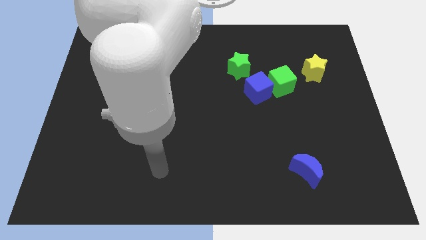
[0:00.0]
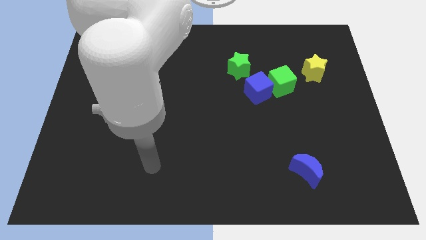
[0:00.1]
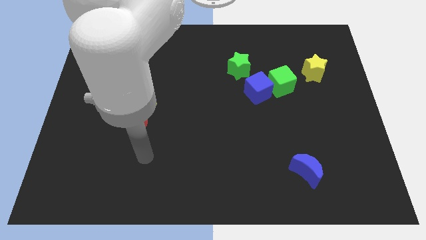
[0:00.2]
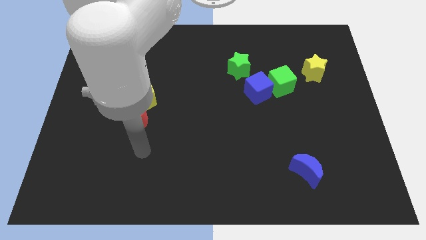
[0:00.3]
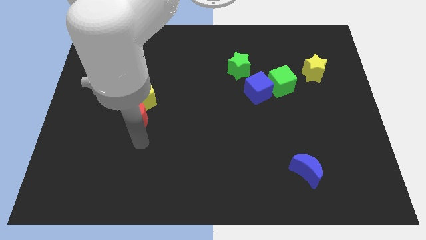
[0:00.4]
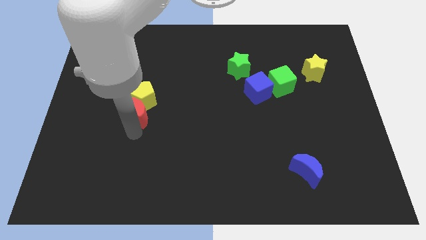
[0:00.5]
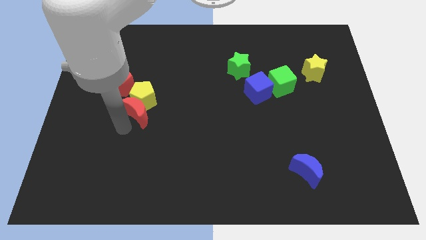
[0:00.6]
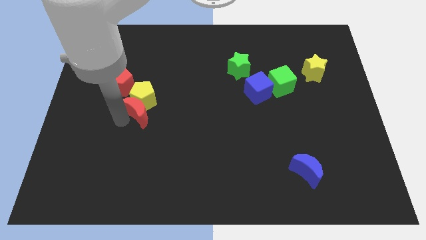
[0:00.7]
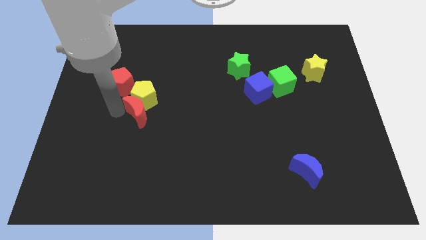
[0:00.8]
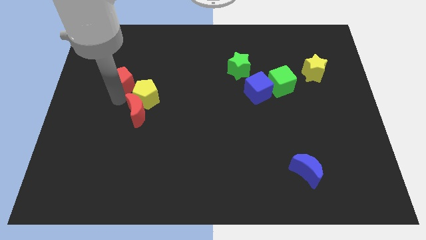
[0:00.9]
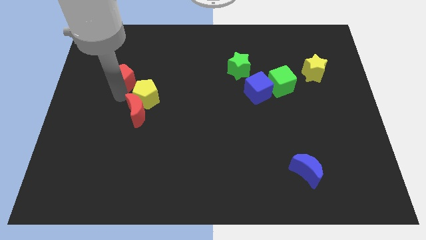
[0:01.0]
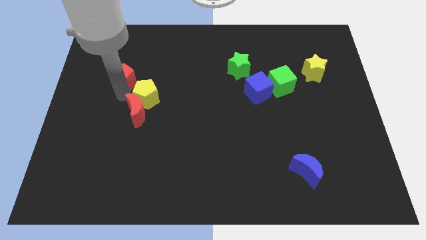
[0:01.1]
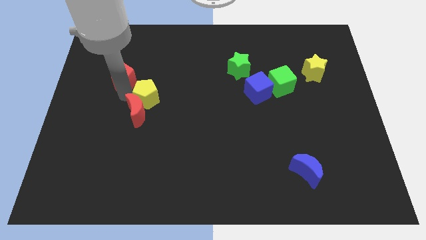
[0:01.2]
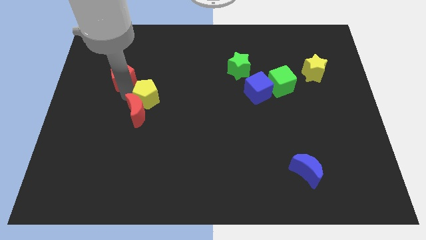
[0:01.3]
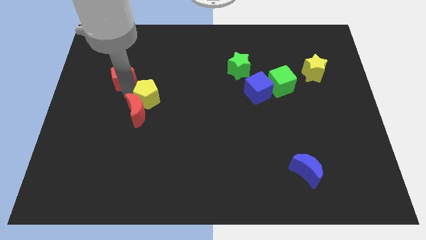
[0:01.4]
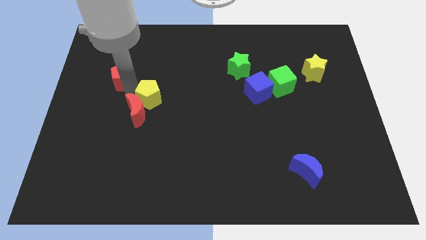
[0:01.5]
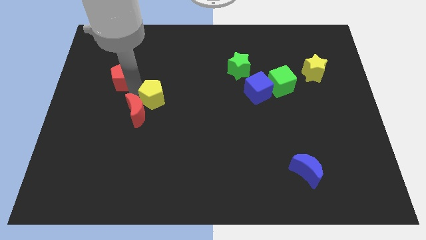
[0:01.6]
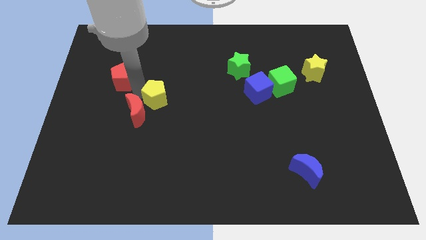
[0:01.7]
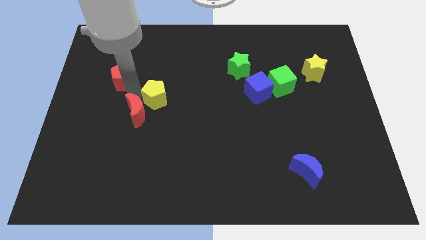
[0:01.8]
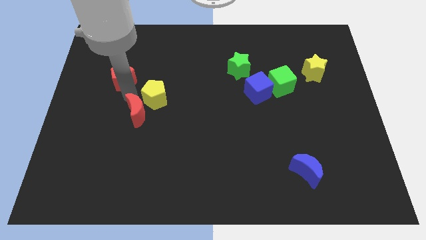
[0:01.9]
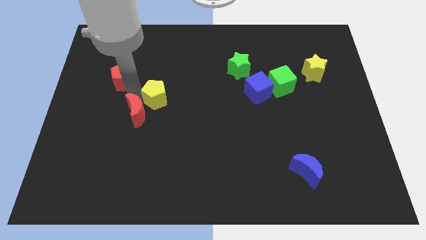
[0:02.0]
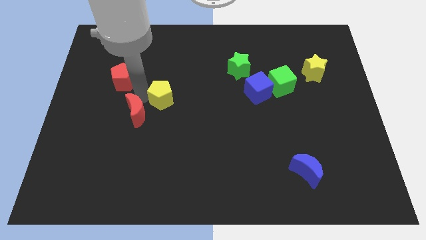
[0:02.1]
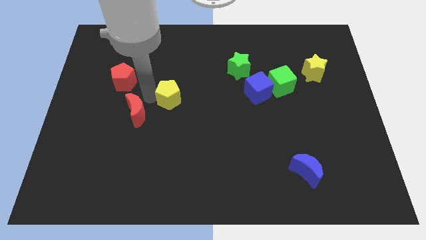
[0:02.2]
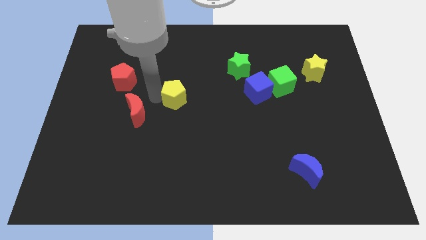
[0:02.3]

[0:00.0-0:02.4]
separate the yellow pentagon from the red moon and red pentagon

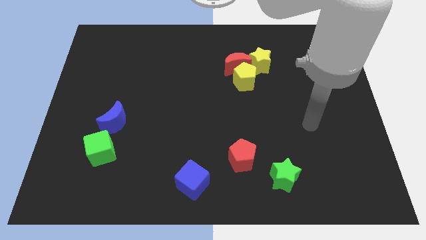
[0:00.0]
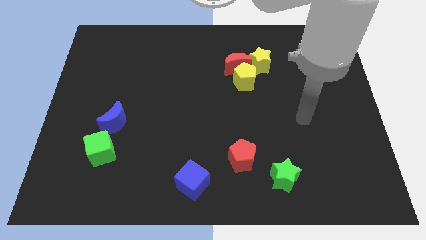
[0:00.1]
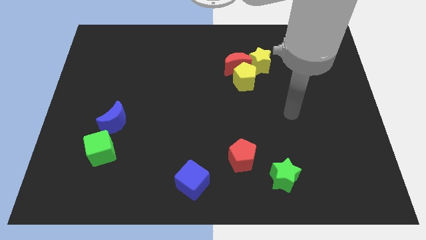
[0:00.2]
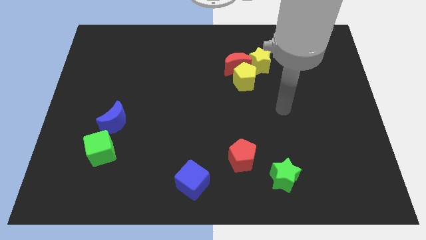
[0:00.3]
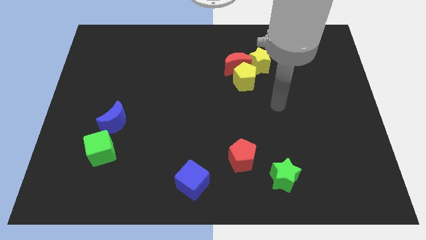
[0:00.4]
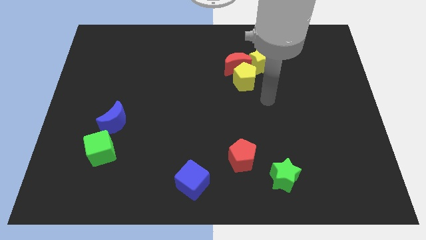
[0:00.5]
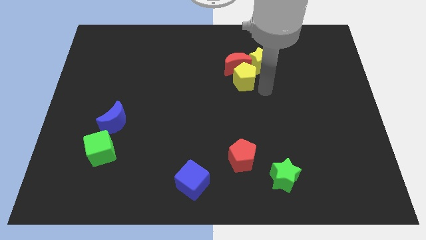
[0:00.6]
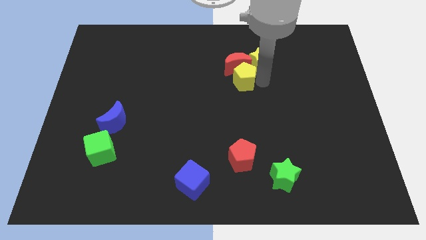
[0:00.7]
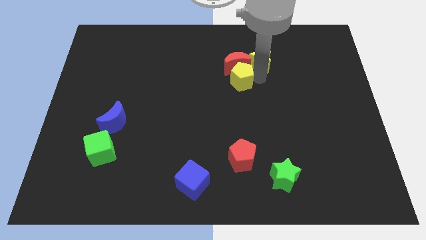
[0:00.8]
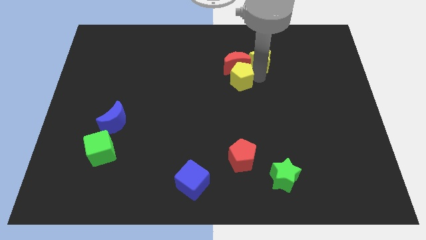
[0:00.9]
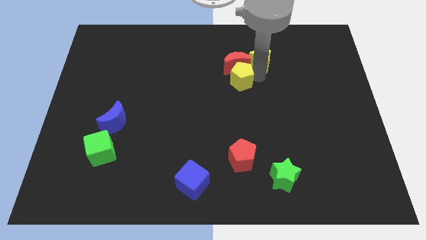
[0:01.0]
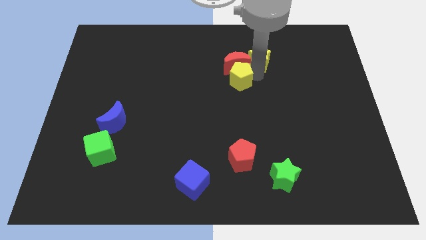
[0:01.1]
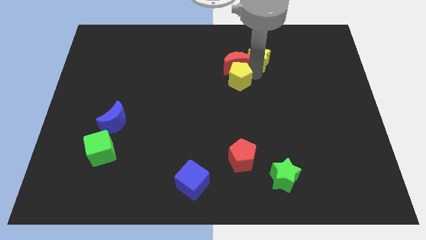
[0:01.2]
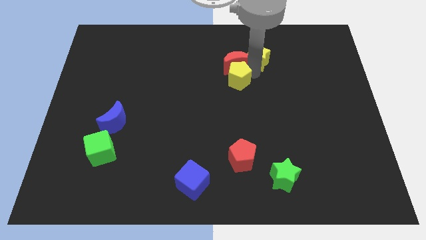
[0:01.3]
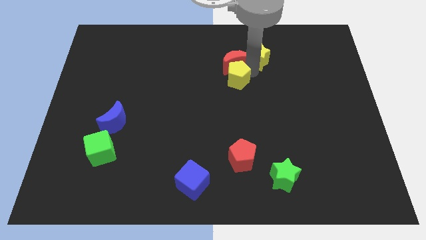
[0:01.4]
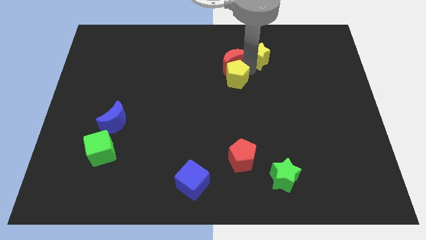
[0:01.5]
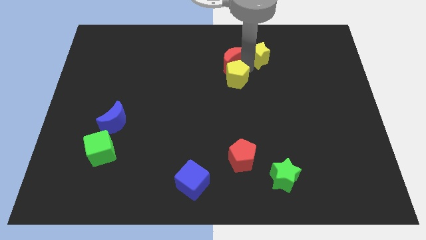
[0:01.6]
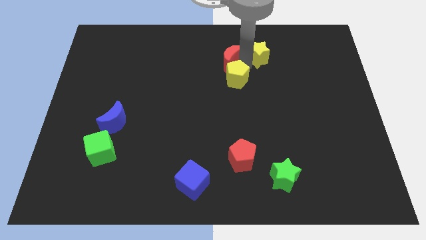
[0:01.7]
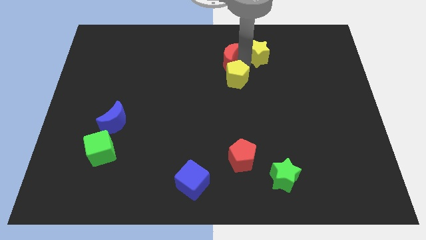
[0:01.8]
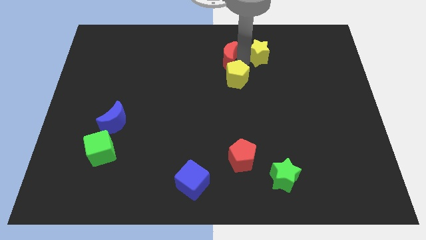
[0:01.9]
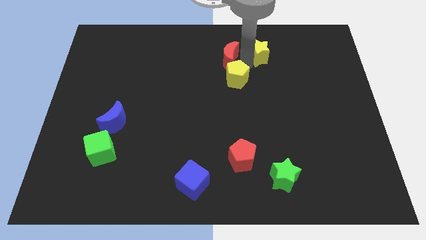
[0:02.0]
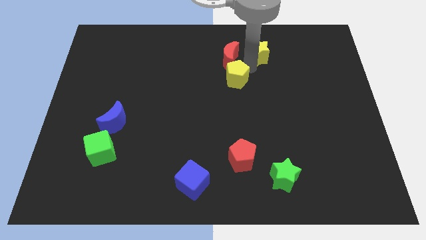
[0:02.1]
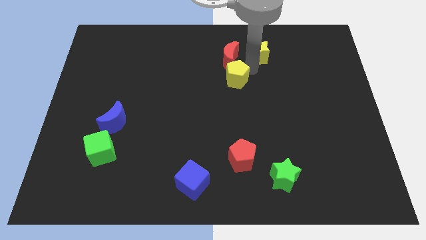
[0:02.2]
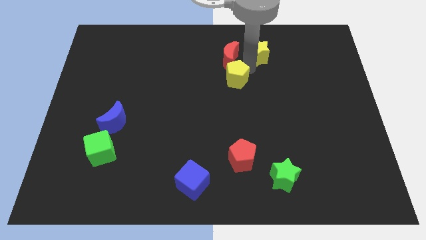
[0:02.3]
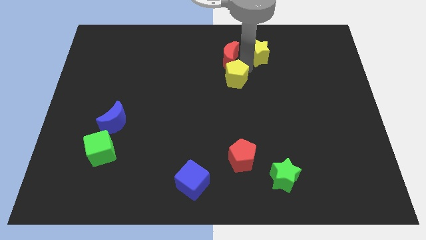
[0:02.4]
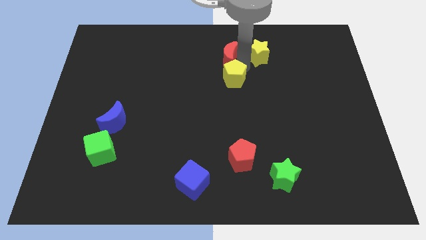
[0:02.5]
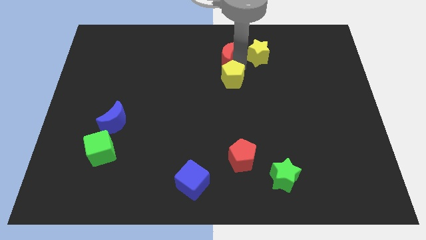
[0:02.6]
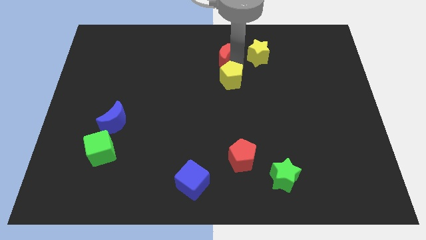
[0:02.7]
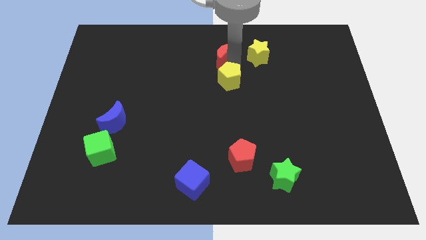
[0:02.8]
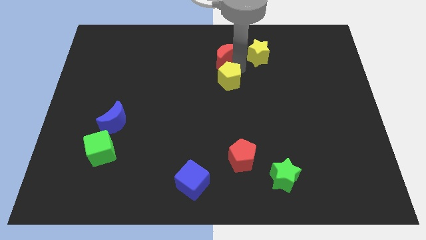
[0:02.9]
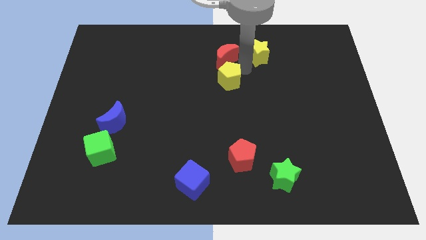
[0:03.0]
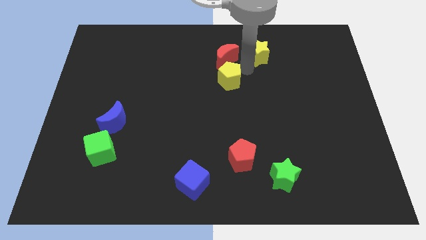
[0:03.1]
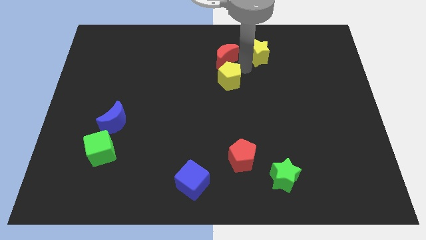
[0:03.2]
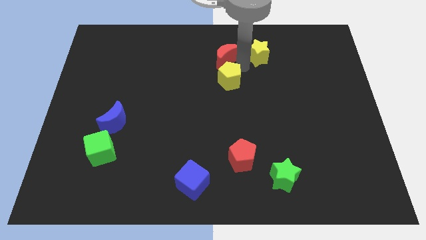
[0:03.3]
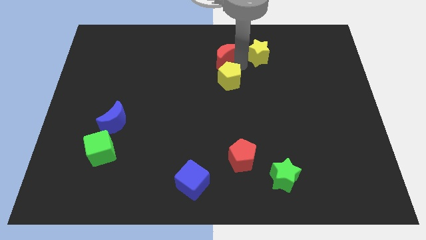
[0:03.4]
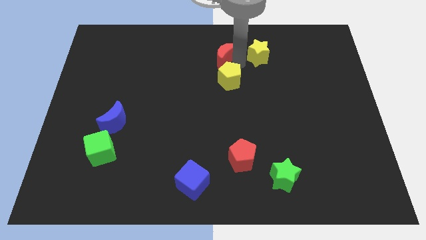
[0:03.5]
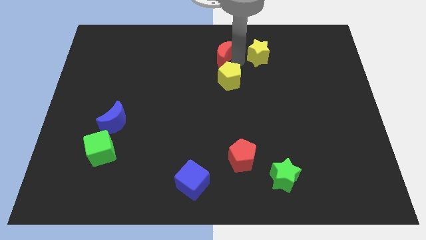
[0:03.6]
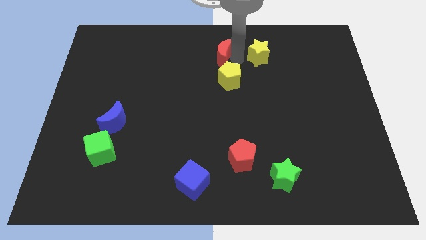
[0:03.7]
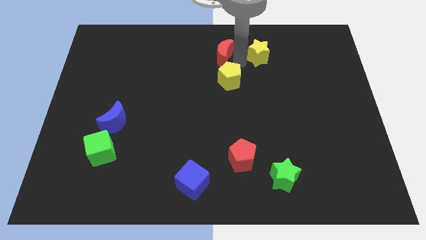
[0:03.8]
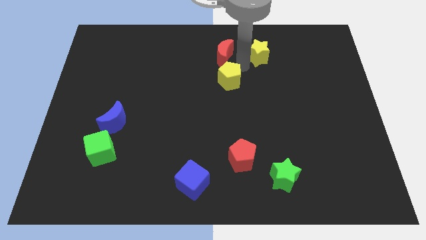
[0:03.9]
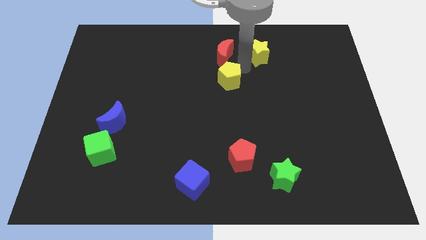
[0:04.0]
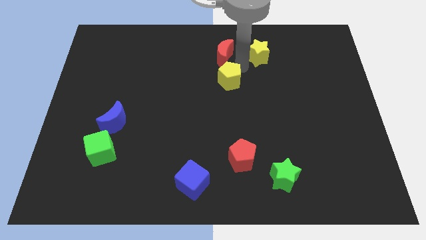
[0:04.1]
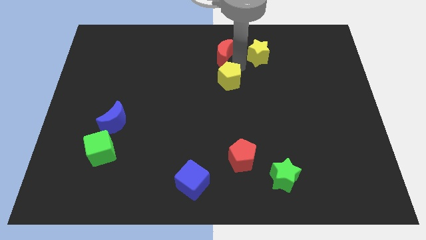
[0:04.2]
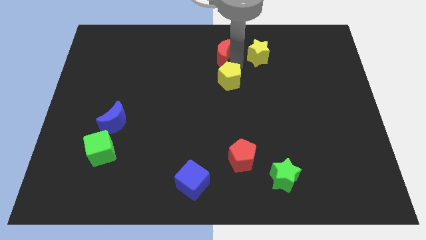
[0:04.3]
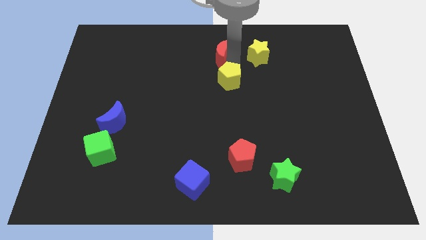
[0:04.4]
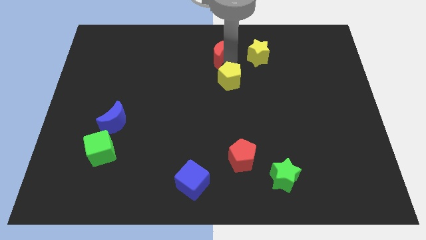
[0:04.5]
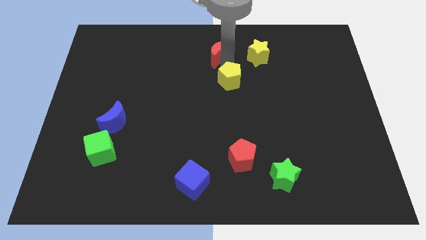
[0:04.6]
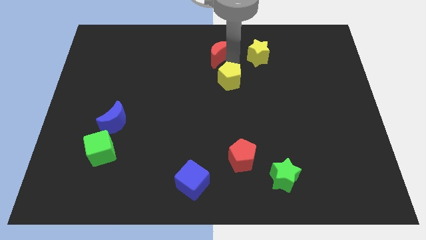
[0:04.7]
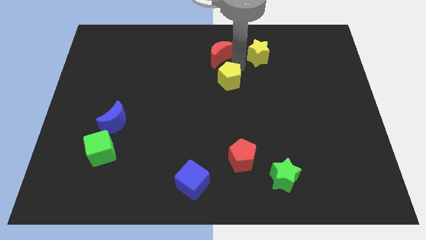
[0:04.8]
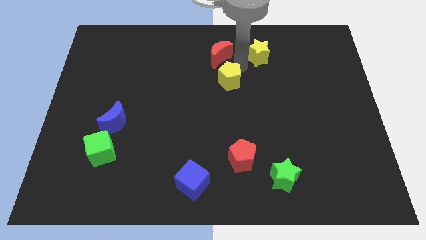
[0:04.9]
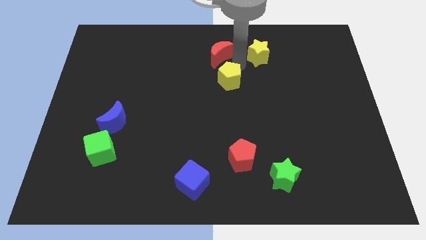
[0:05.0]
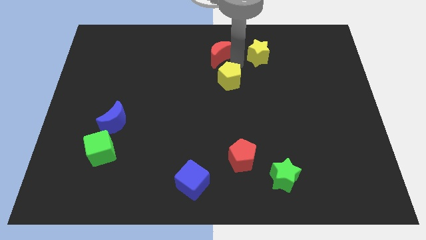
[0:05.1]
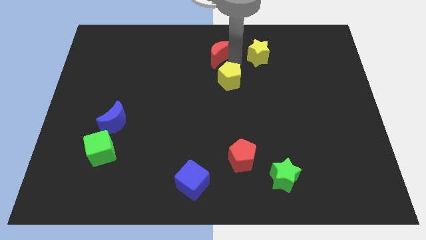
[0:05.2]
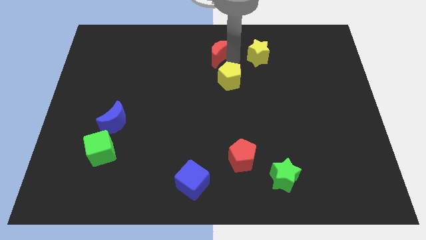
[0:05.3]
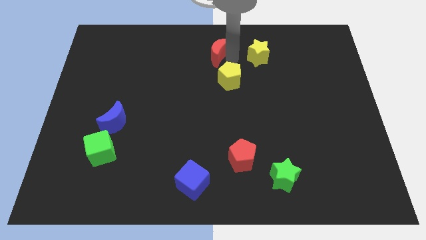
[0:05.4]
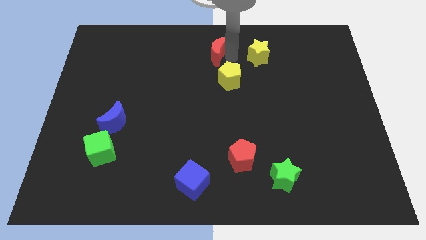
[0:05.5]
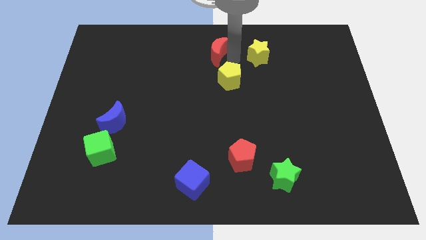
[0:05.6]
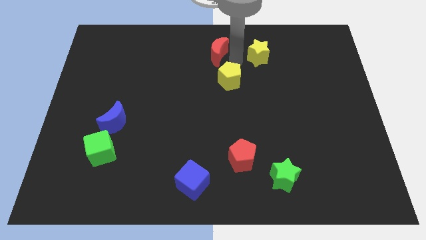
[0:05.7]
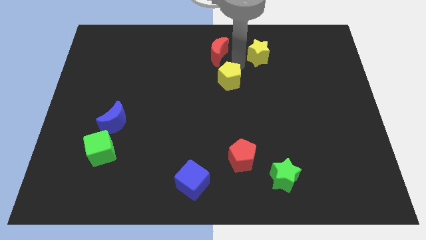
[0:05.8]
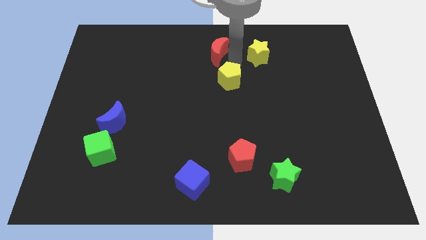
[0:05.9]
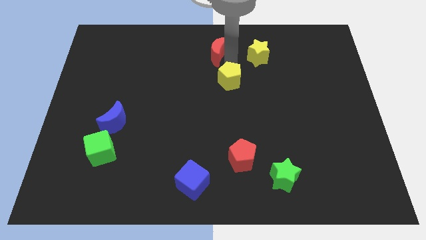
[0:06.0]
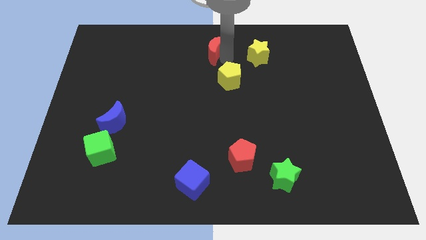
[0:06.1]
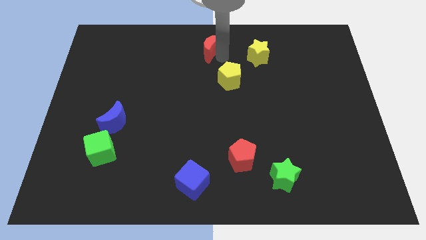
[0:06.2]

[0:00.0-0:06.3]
pull the red moon apart from the yellow pentagon and yellow star

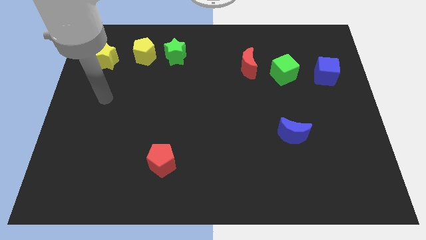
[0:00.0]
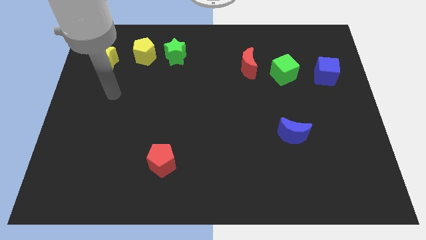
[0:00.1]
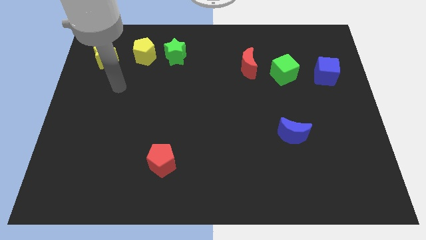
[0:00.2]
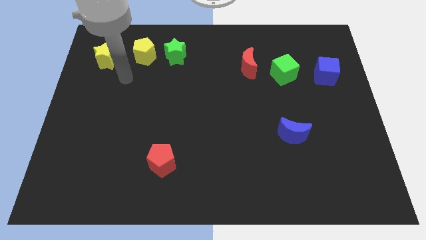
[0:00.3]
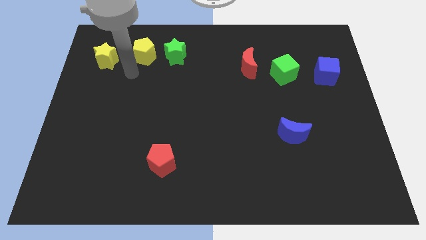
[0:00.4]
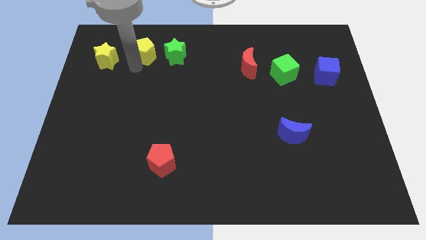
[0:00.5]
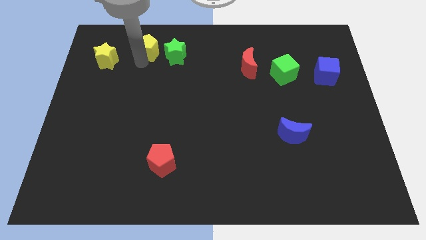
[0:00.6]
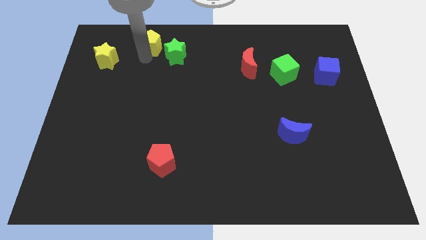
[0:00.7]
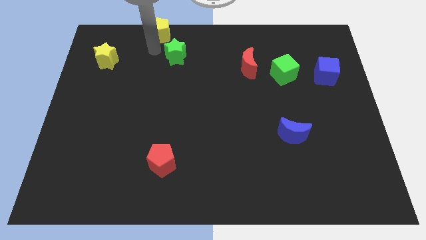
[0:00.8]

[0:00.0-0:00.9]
move the green star away from the yellow pentagon
